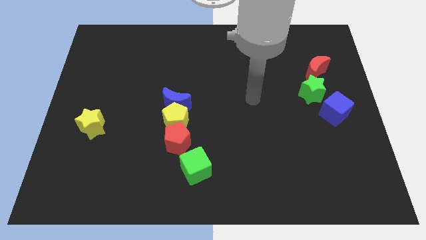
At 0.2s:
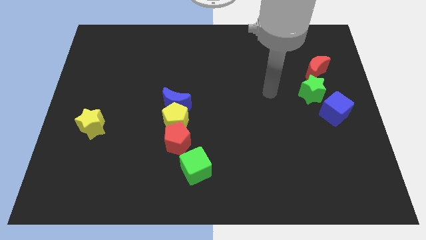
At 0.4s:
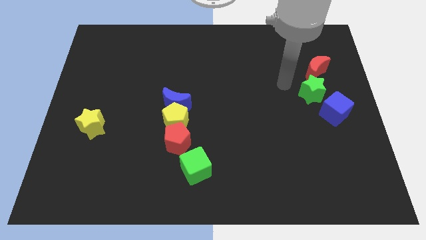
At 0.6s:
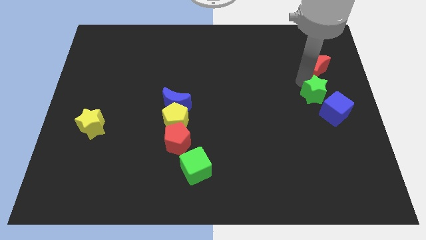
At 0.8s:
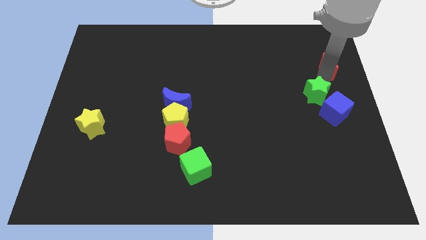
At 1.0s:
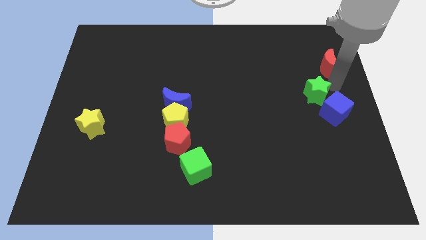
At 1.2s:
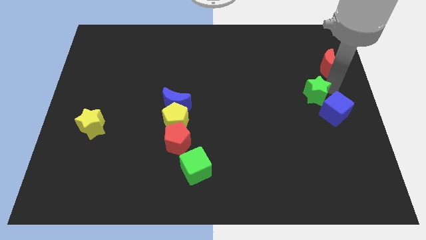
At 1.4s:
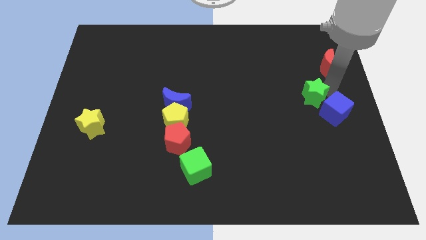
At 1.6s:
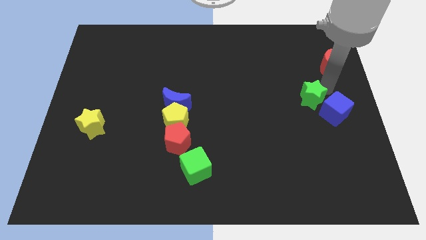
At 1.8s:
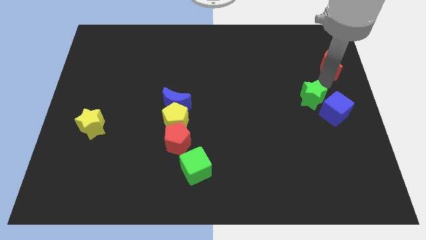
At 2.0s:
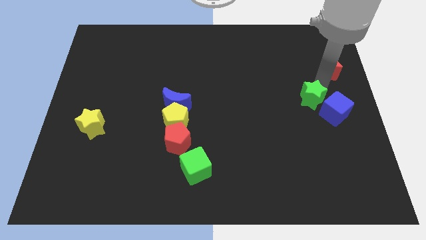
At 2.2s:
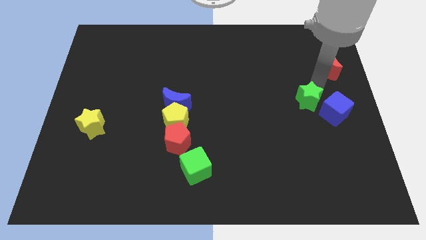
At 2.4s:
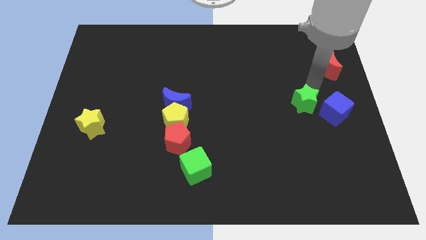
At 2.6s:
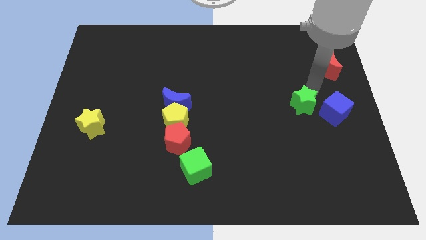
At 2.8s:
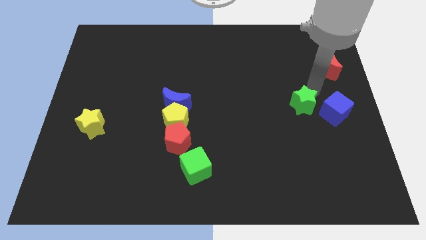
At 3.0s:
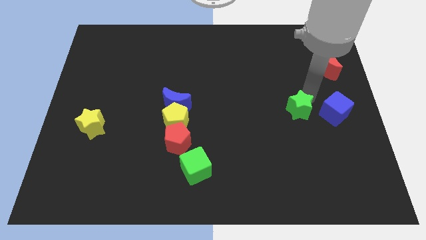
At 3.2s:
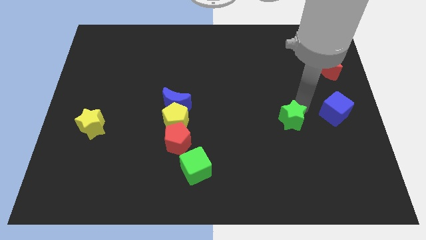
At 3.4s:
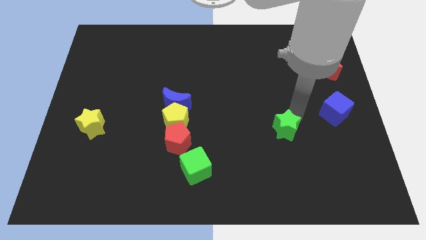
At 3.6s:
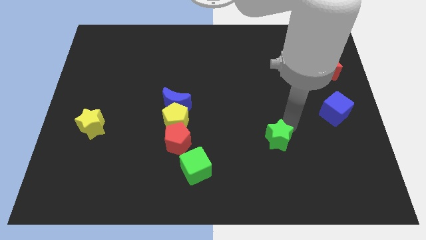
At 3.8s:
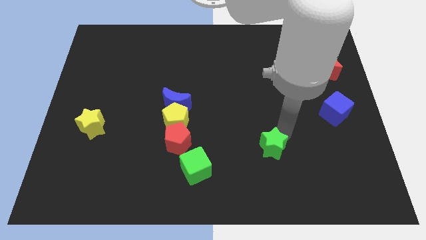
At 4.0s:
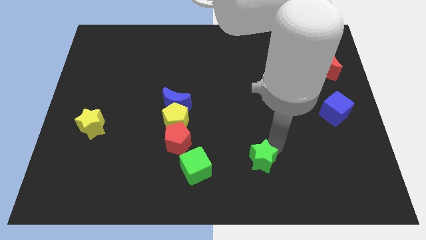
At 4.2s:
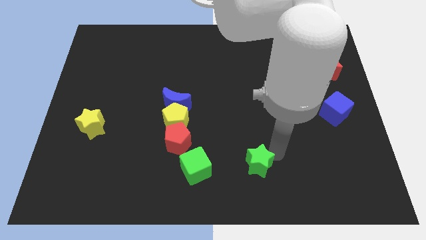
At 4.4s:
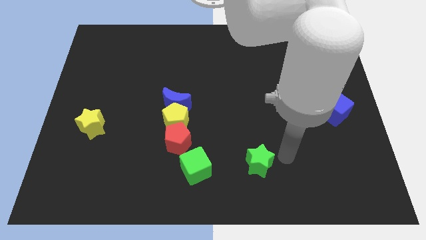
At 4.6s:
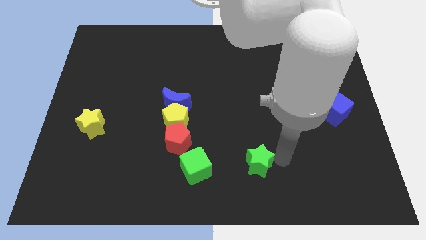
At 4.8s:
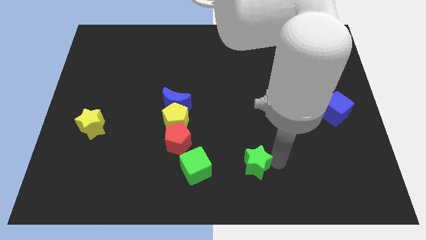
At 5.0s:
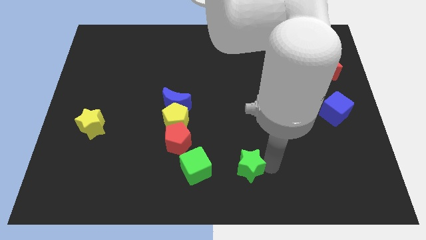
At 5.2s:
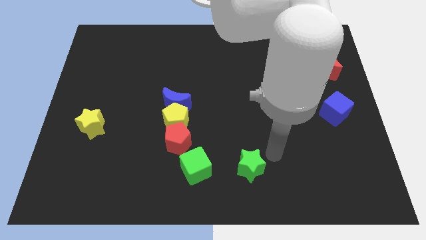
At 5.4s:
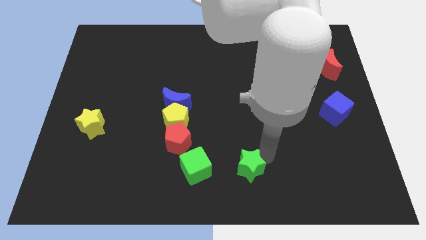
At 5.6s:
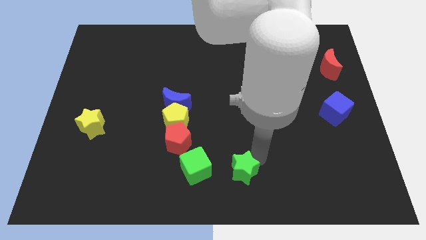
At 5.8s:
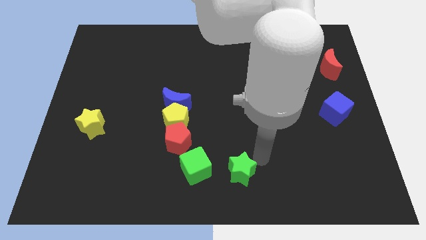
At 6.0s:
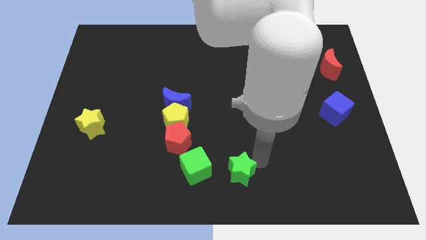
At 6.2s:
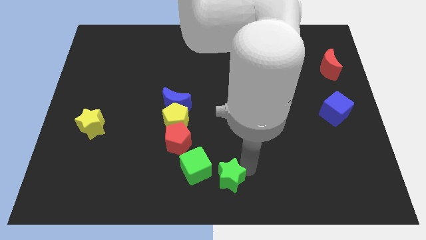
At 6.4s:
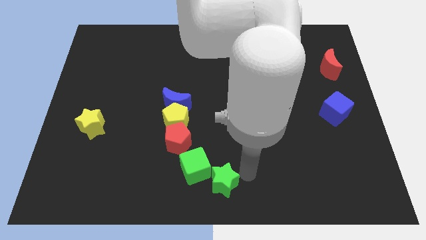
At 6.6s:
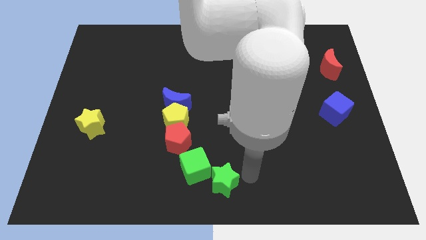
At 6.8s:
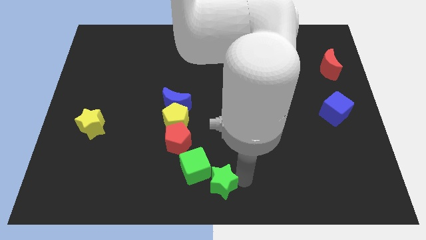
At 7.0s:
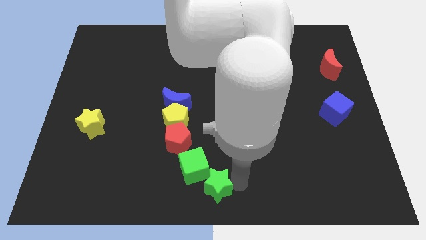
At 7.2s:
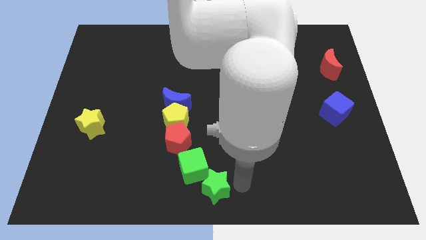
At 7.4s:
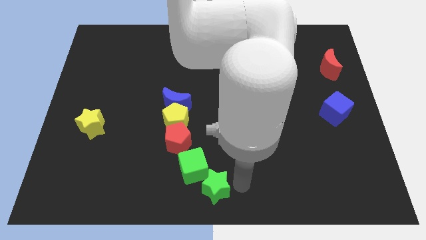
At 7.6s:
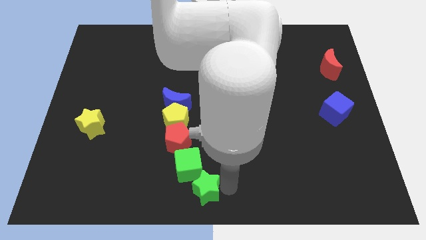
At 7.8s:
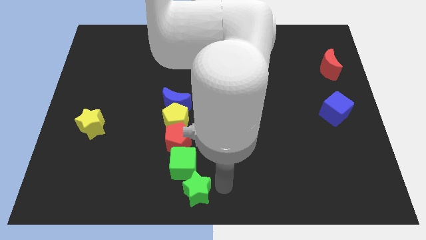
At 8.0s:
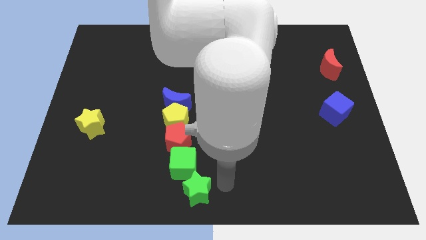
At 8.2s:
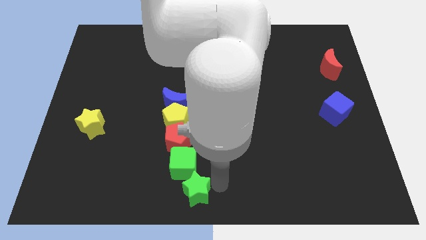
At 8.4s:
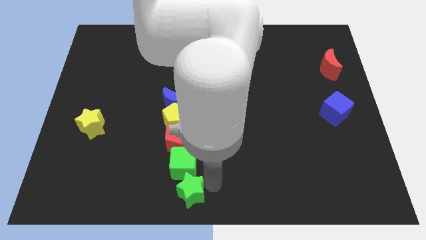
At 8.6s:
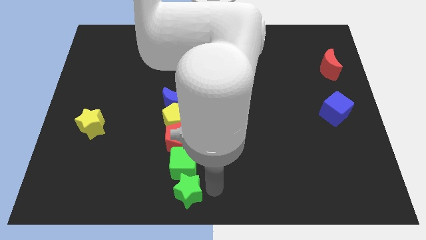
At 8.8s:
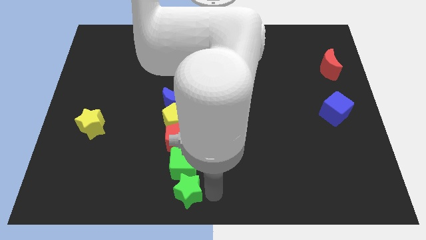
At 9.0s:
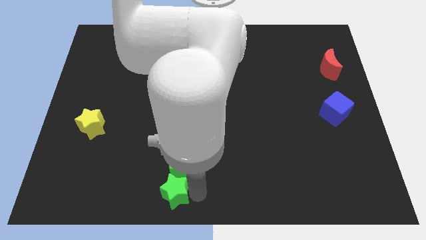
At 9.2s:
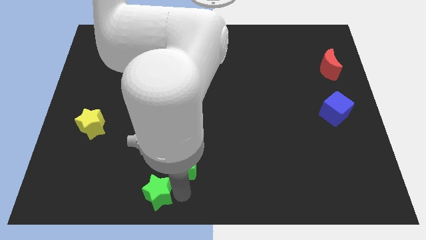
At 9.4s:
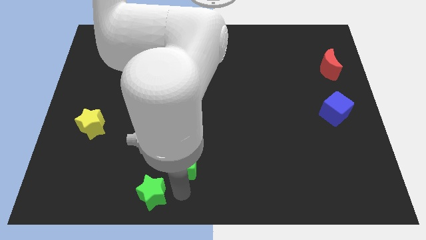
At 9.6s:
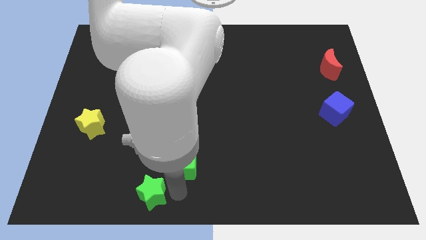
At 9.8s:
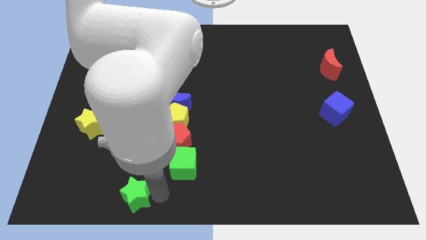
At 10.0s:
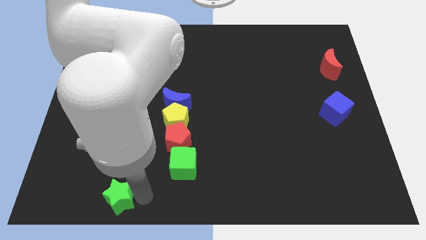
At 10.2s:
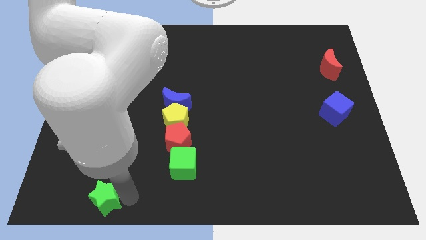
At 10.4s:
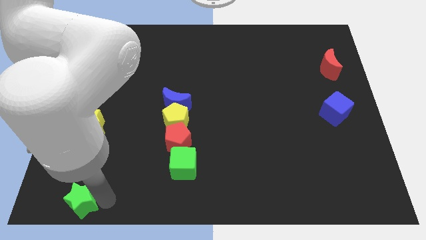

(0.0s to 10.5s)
push the green star to the lower left corner

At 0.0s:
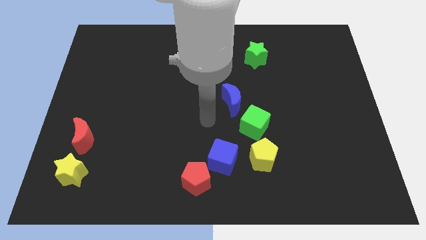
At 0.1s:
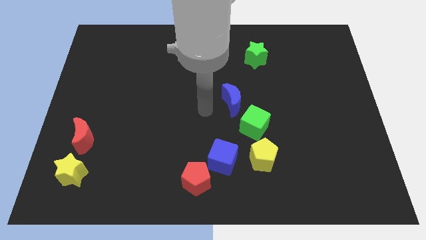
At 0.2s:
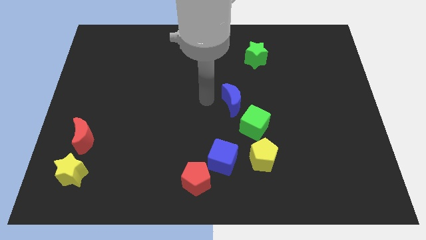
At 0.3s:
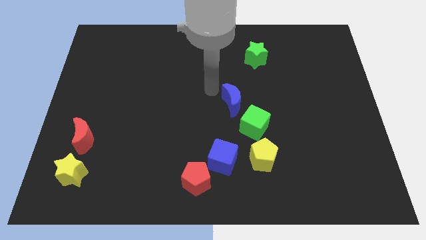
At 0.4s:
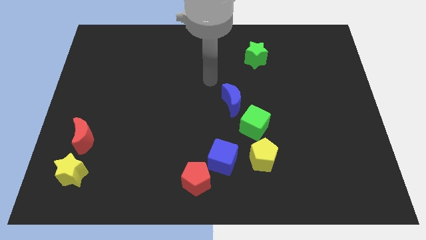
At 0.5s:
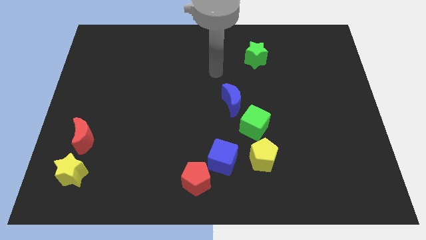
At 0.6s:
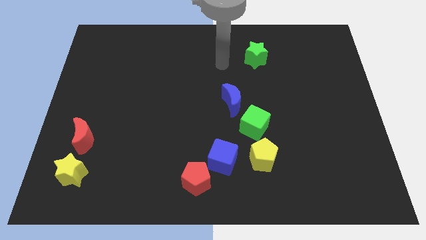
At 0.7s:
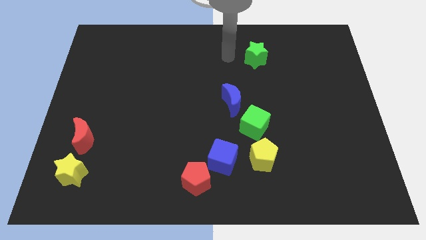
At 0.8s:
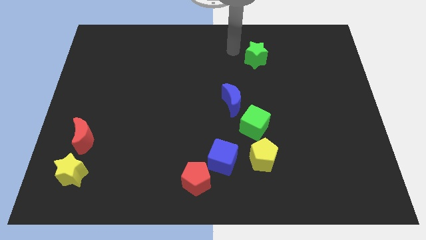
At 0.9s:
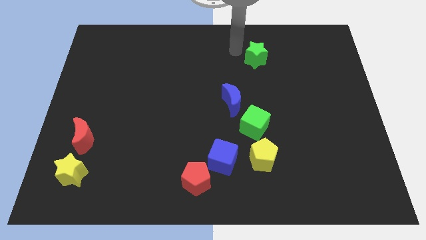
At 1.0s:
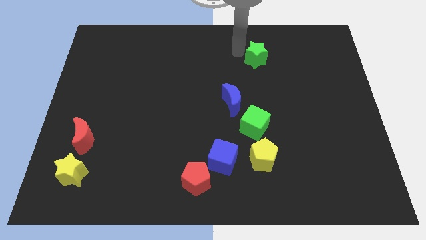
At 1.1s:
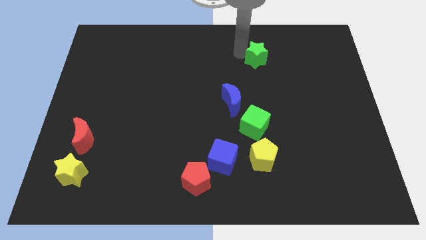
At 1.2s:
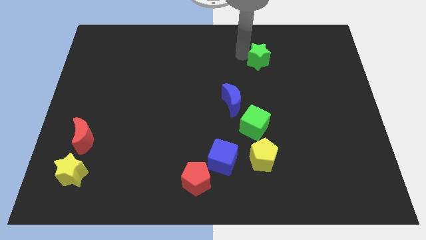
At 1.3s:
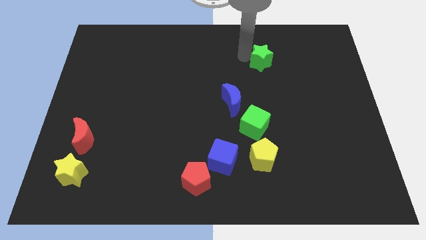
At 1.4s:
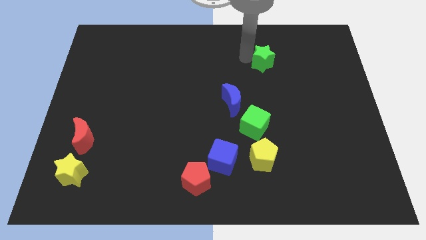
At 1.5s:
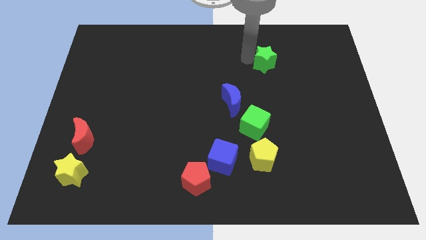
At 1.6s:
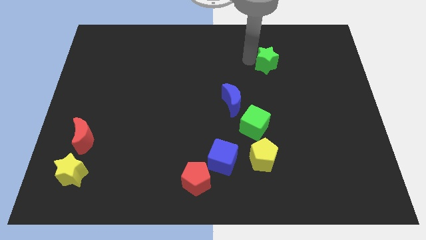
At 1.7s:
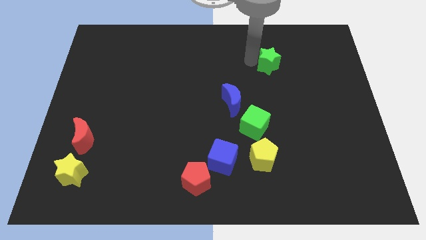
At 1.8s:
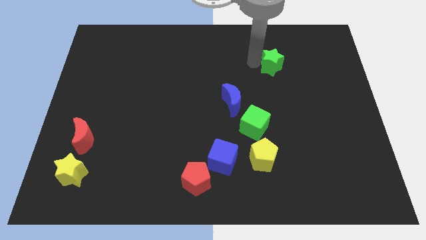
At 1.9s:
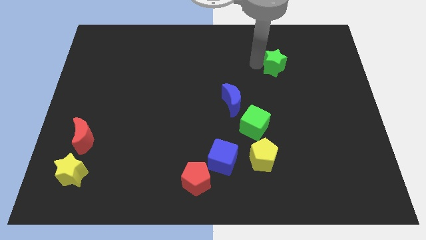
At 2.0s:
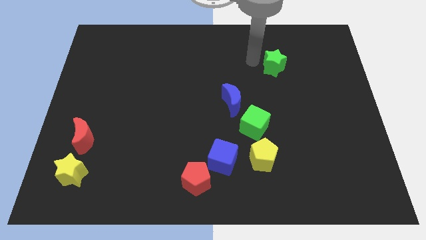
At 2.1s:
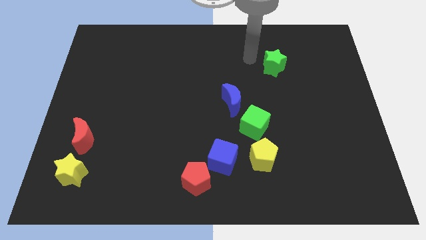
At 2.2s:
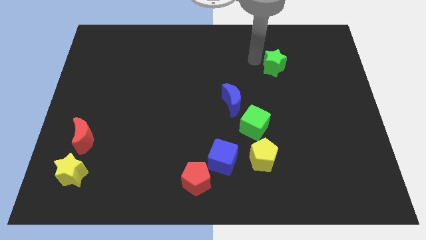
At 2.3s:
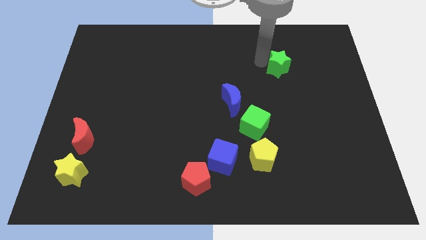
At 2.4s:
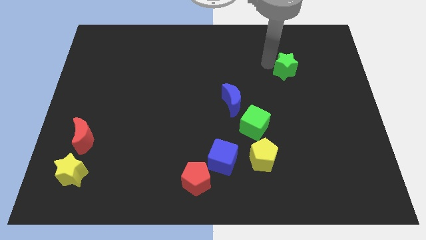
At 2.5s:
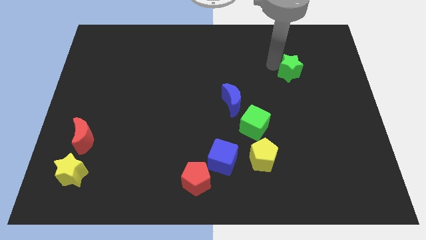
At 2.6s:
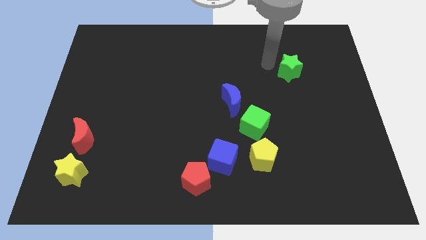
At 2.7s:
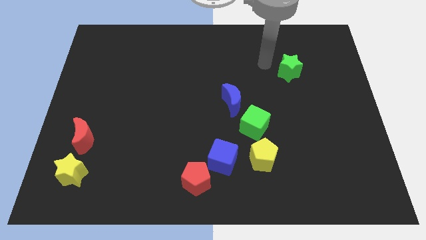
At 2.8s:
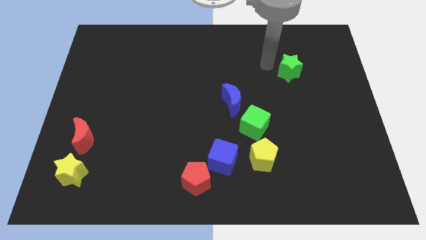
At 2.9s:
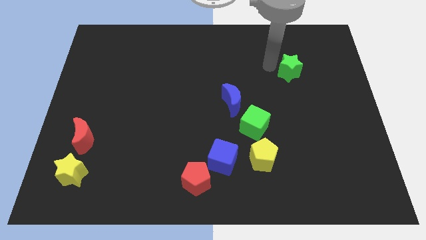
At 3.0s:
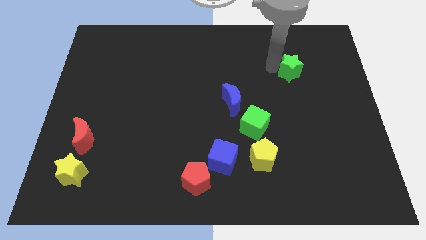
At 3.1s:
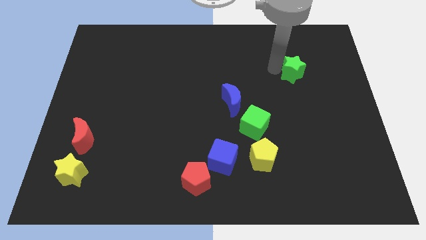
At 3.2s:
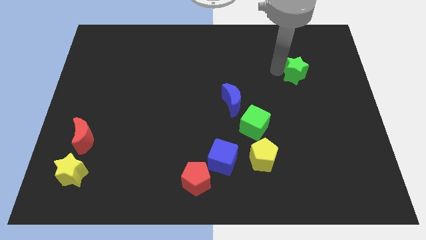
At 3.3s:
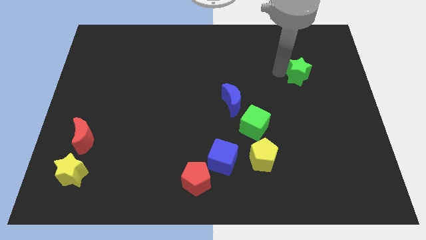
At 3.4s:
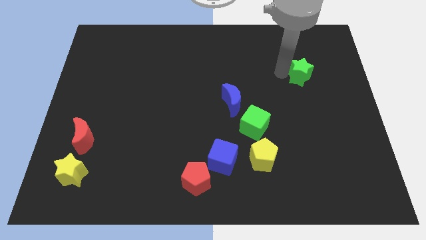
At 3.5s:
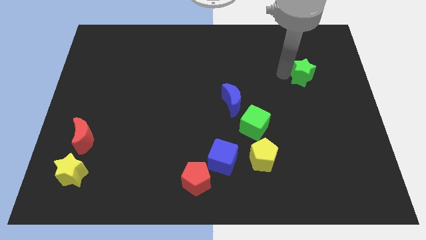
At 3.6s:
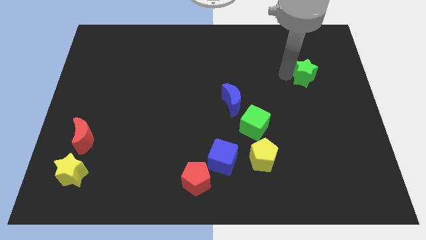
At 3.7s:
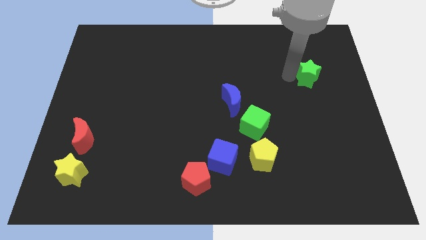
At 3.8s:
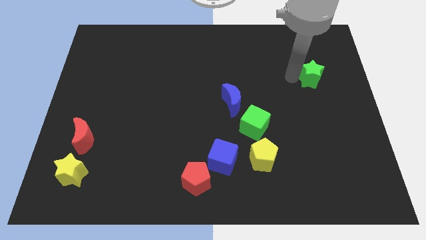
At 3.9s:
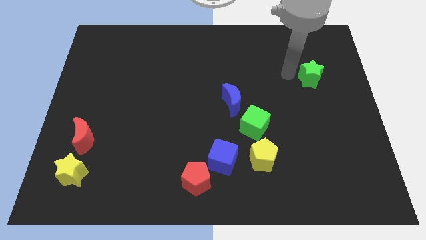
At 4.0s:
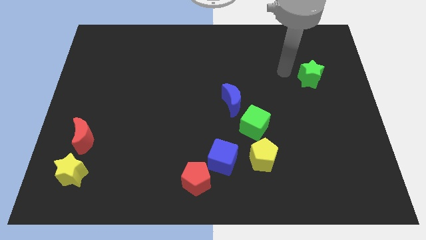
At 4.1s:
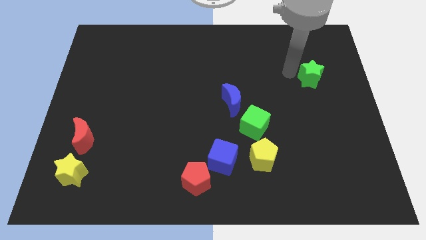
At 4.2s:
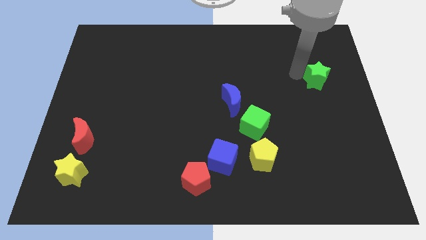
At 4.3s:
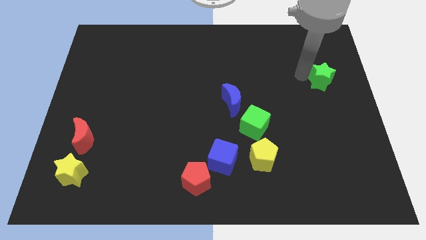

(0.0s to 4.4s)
put the green star to the center right
